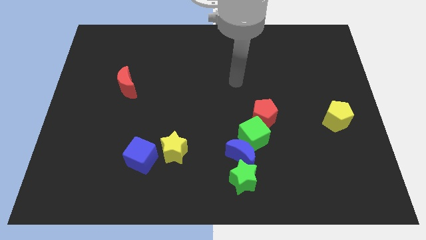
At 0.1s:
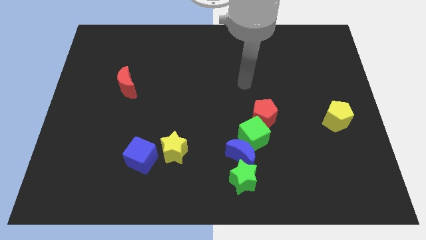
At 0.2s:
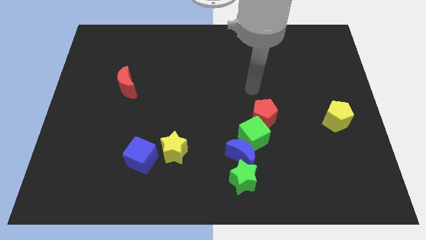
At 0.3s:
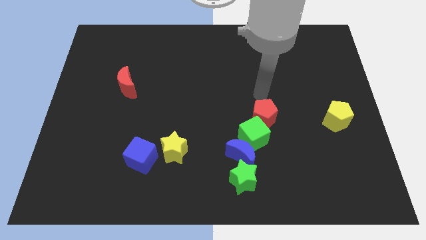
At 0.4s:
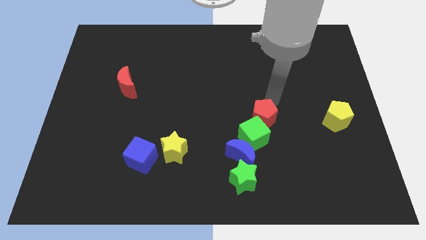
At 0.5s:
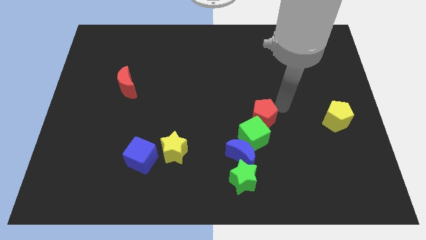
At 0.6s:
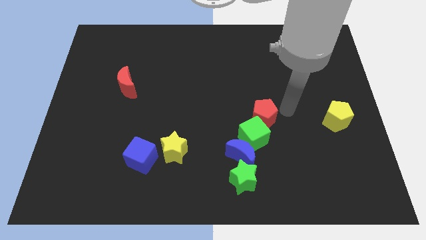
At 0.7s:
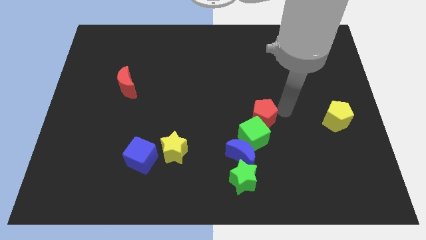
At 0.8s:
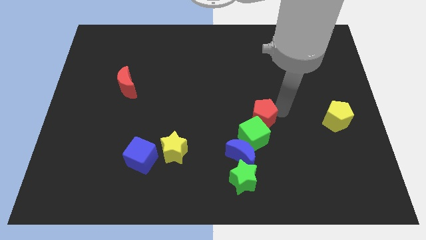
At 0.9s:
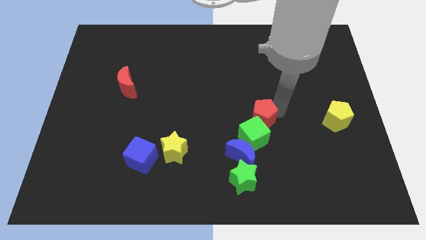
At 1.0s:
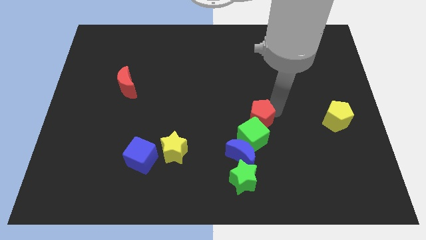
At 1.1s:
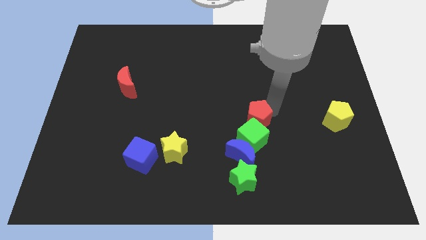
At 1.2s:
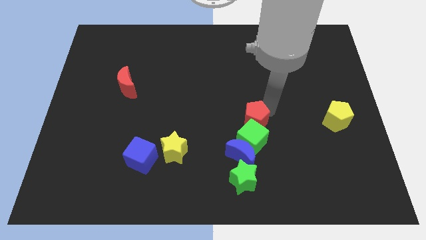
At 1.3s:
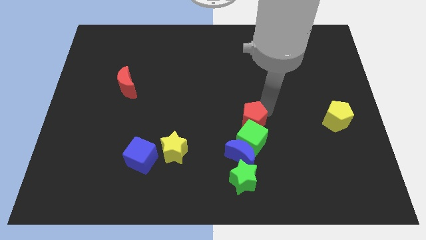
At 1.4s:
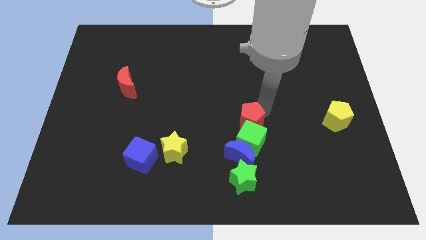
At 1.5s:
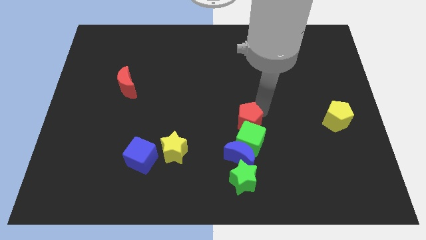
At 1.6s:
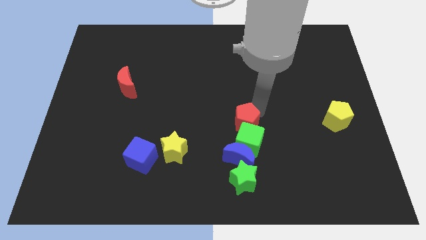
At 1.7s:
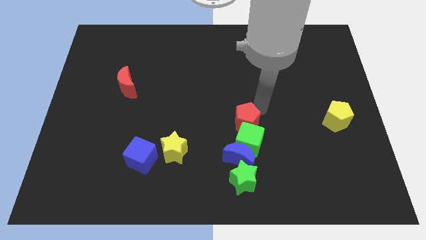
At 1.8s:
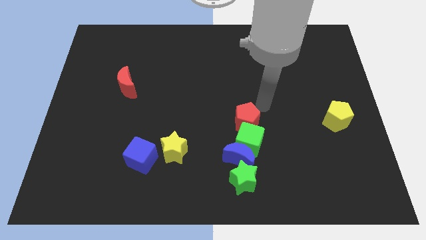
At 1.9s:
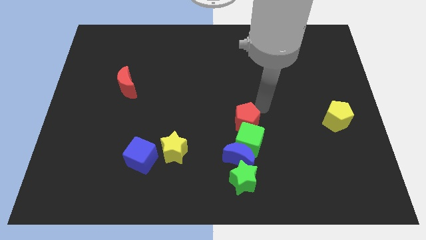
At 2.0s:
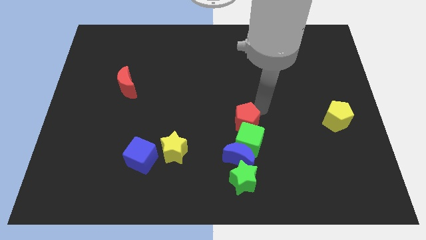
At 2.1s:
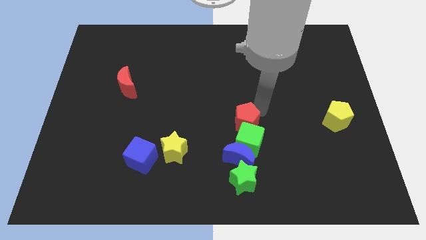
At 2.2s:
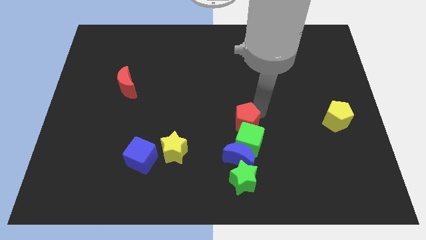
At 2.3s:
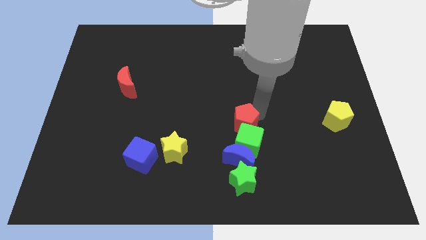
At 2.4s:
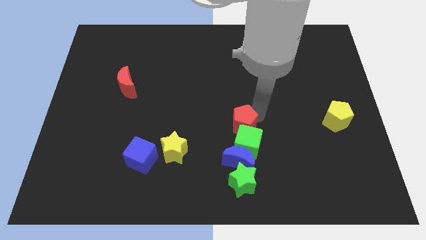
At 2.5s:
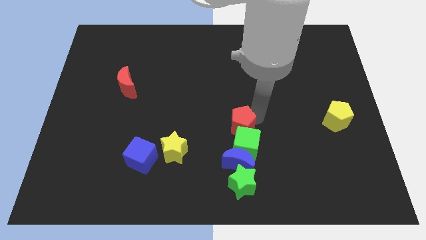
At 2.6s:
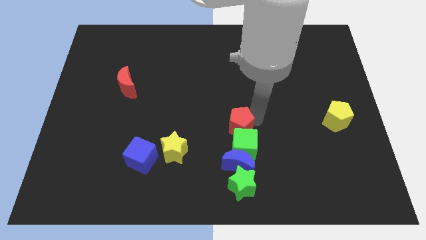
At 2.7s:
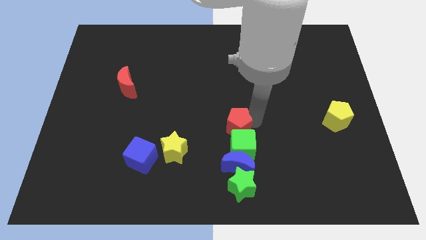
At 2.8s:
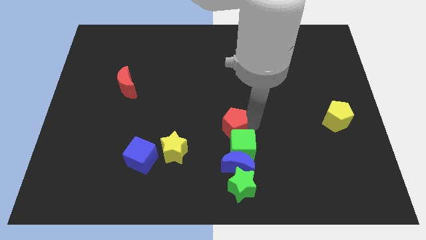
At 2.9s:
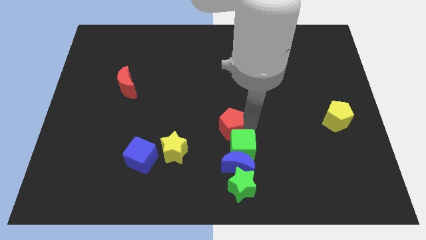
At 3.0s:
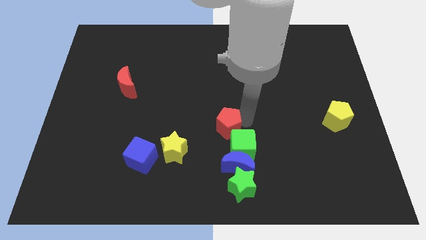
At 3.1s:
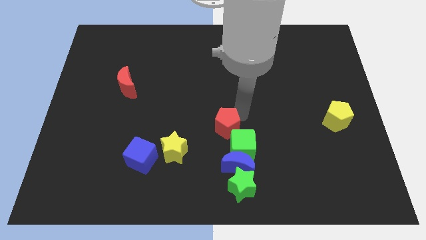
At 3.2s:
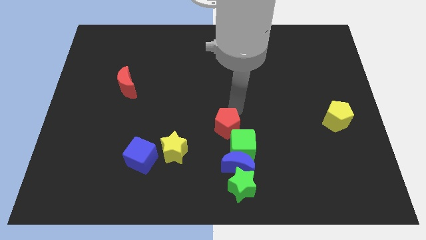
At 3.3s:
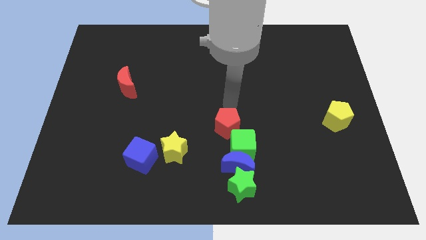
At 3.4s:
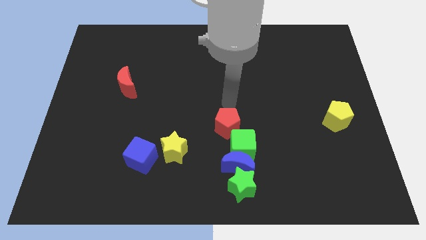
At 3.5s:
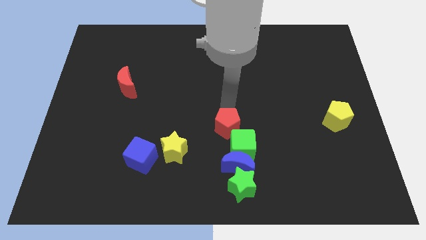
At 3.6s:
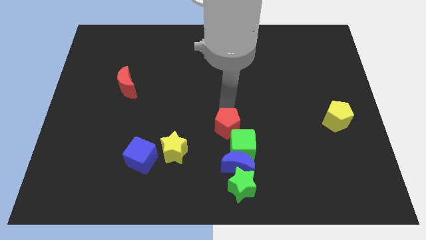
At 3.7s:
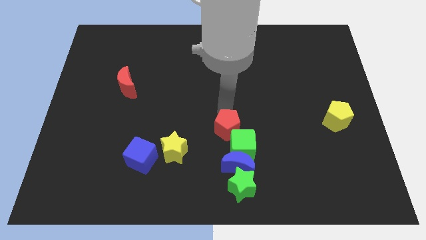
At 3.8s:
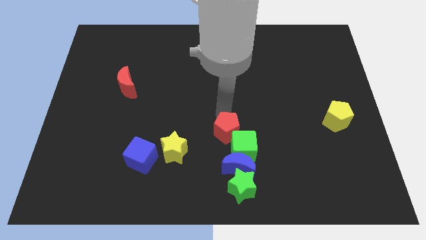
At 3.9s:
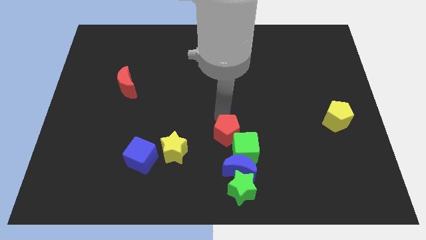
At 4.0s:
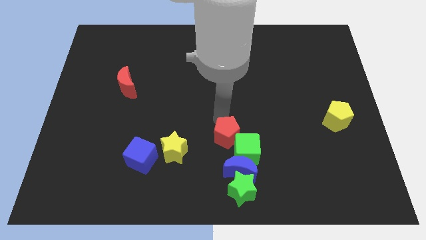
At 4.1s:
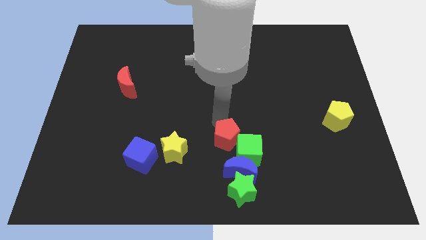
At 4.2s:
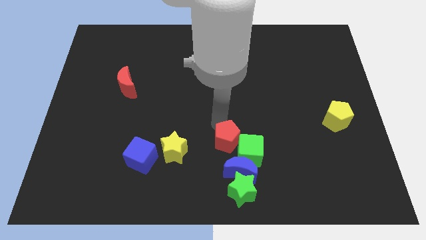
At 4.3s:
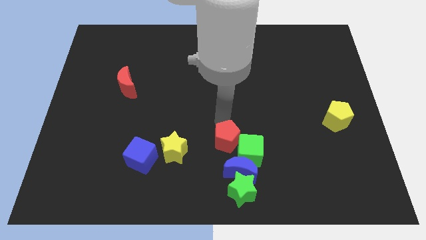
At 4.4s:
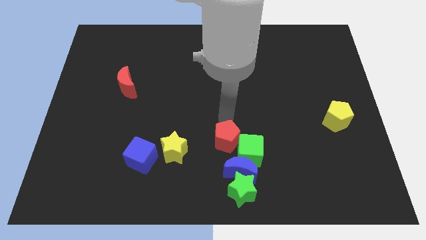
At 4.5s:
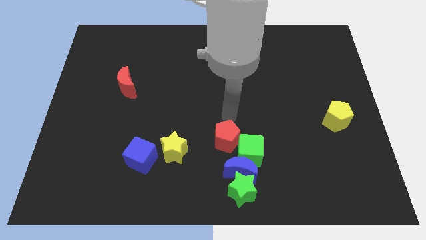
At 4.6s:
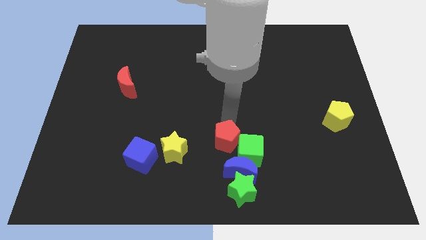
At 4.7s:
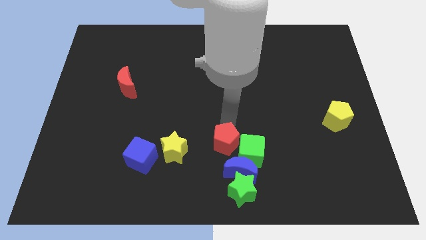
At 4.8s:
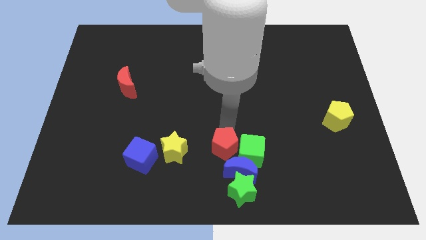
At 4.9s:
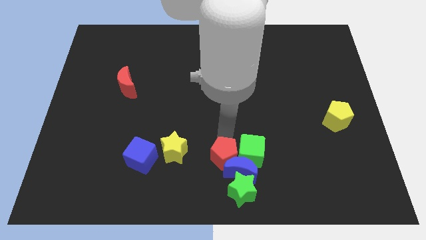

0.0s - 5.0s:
push the red pentagon to the bottom side

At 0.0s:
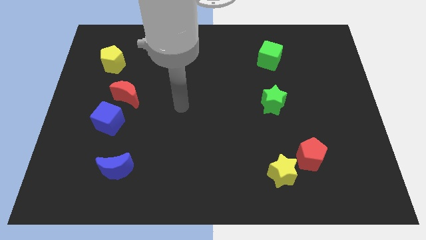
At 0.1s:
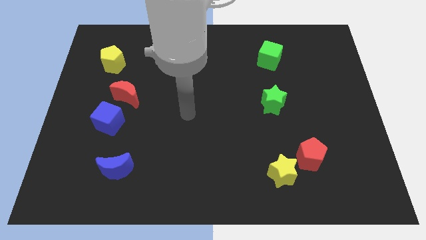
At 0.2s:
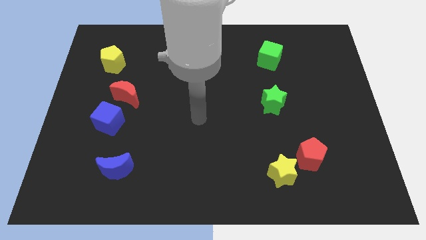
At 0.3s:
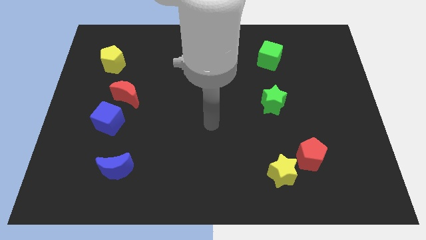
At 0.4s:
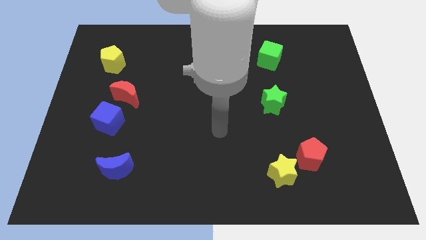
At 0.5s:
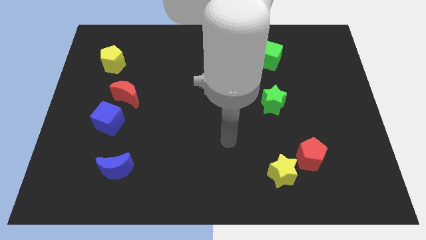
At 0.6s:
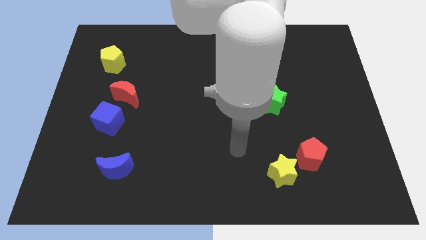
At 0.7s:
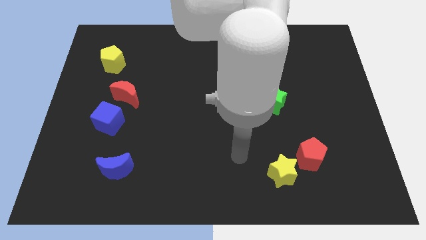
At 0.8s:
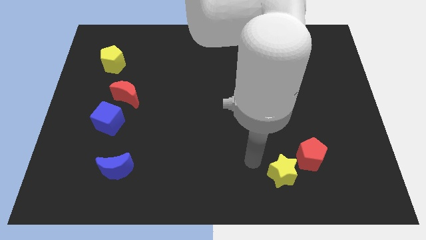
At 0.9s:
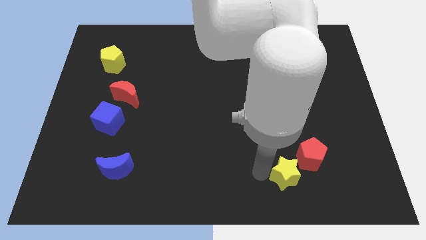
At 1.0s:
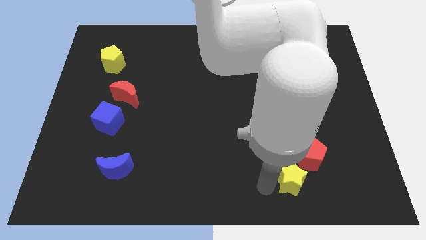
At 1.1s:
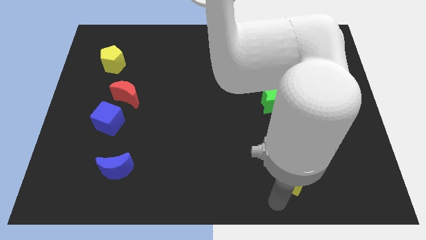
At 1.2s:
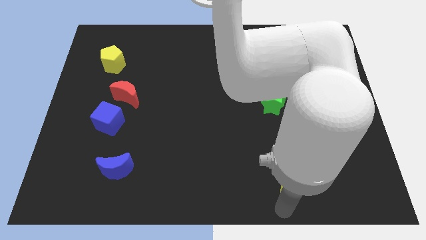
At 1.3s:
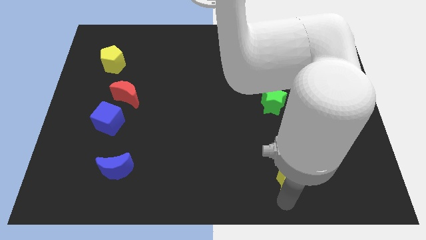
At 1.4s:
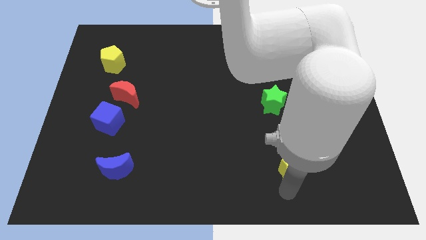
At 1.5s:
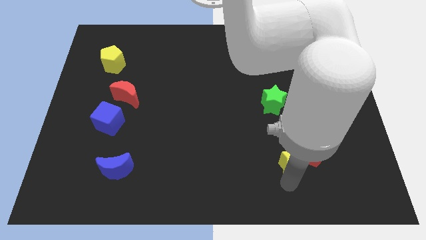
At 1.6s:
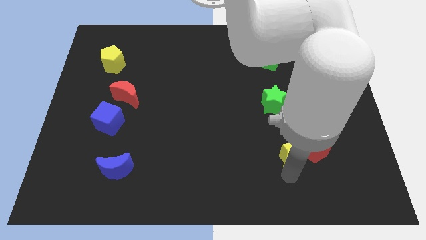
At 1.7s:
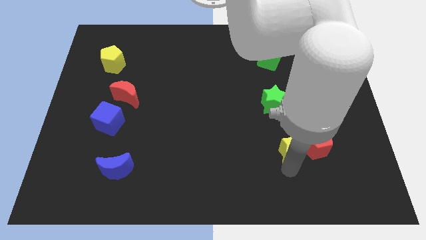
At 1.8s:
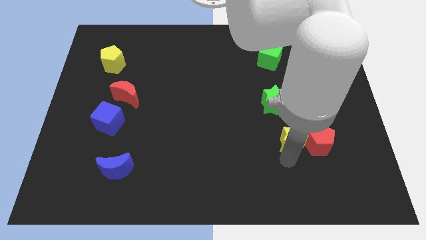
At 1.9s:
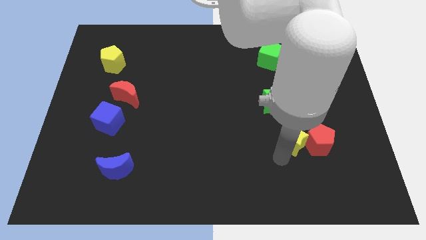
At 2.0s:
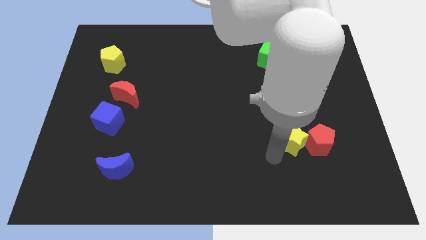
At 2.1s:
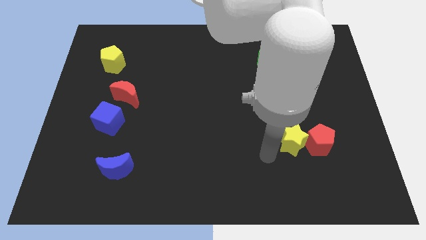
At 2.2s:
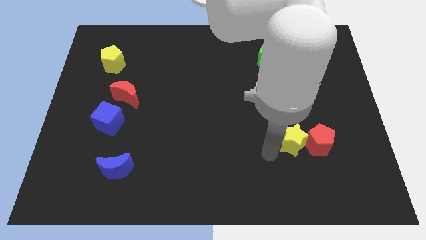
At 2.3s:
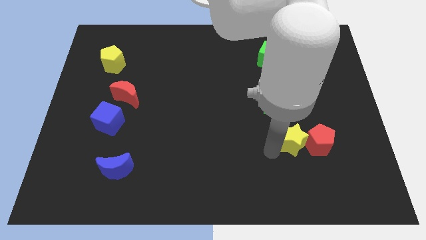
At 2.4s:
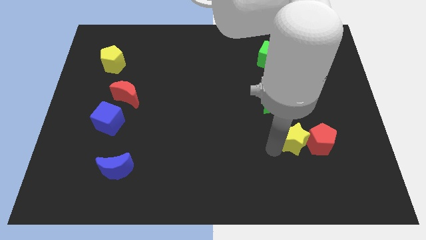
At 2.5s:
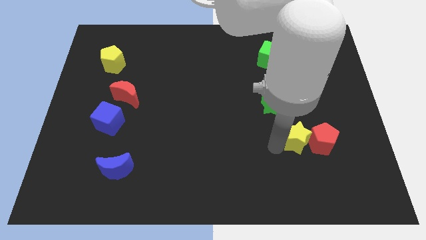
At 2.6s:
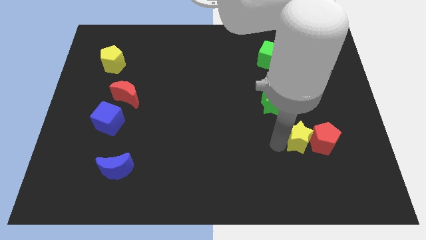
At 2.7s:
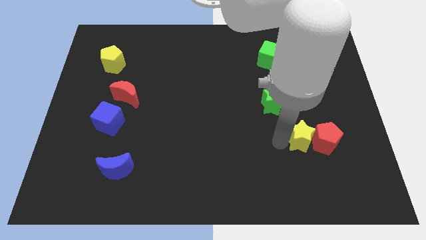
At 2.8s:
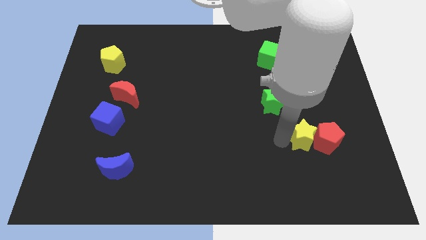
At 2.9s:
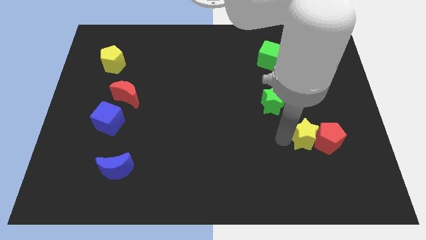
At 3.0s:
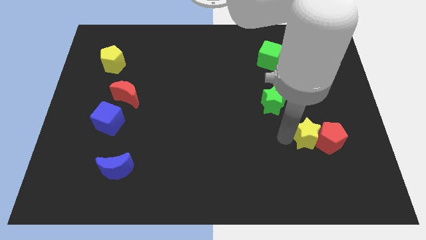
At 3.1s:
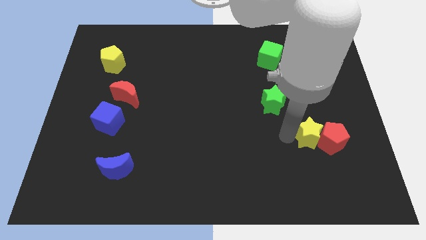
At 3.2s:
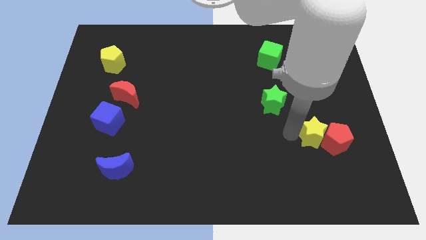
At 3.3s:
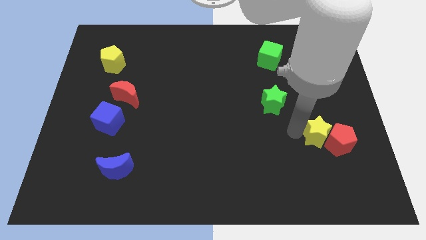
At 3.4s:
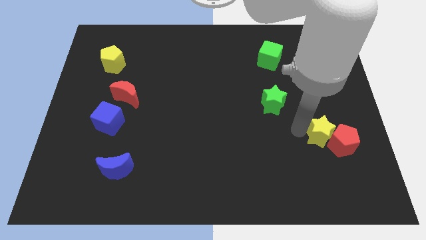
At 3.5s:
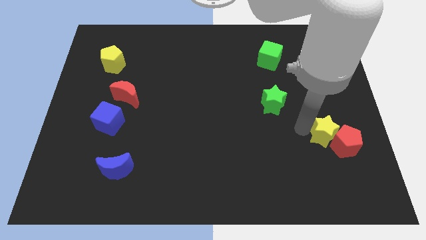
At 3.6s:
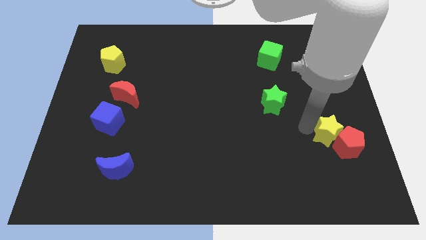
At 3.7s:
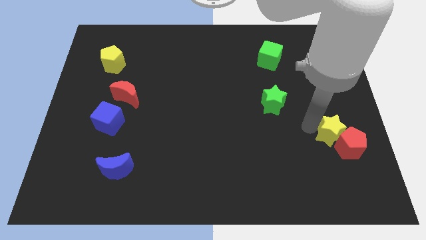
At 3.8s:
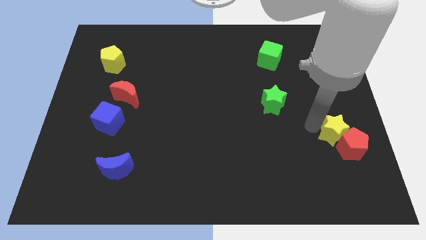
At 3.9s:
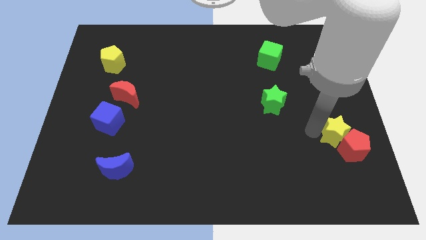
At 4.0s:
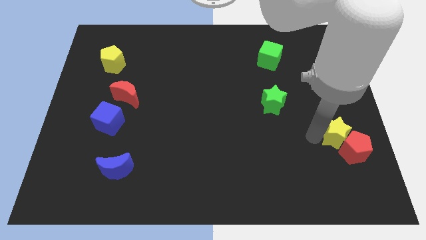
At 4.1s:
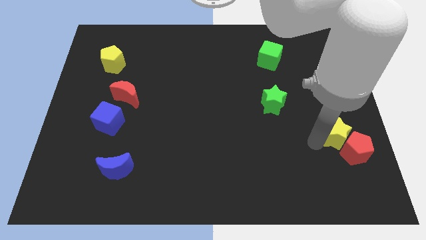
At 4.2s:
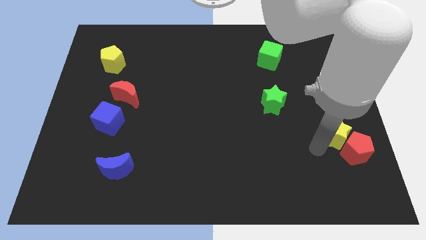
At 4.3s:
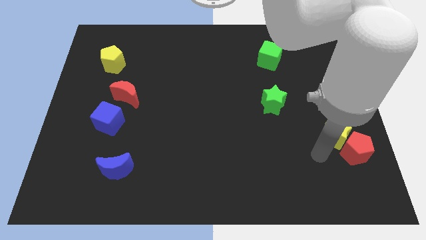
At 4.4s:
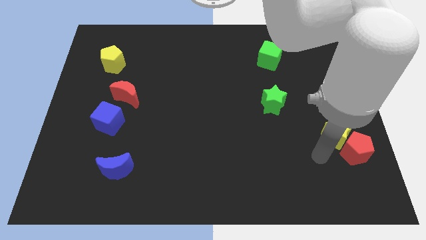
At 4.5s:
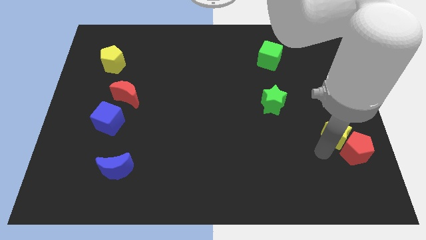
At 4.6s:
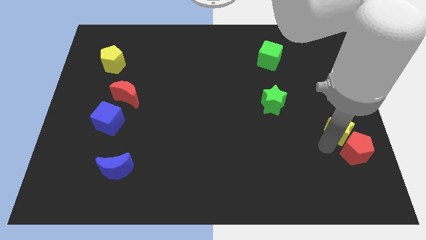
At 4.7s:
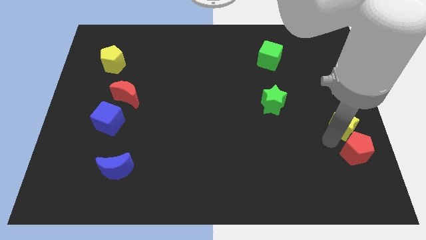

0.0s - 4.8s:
push the yellow star to the right side of the board
